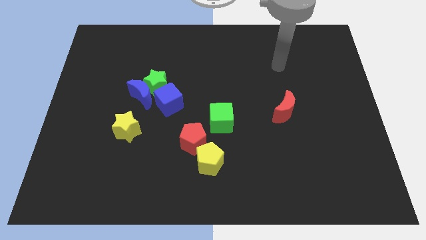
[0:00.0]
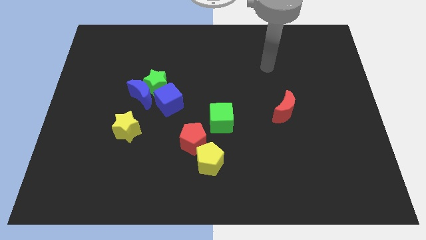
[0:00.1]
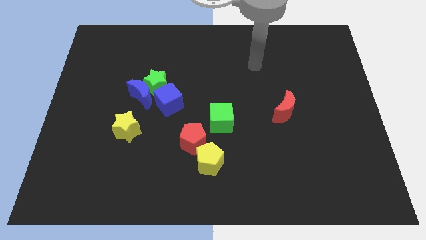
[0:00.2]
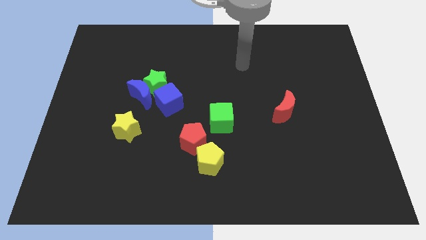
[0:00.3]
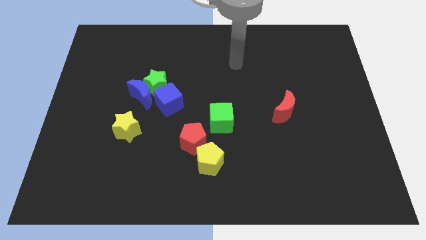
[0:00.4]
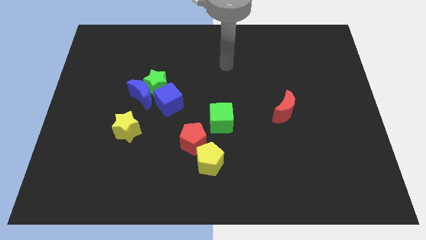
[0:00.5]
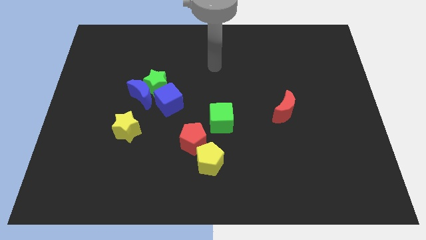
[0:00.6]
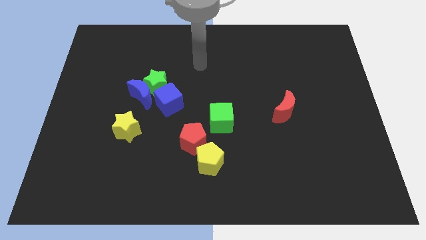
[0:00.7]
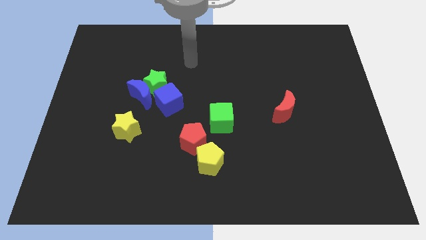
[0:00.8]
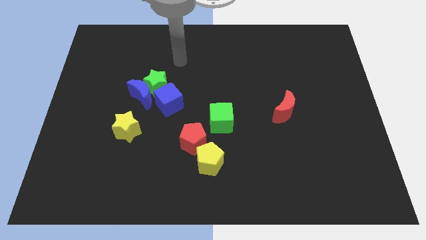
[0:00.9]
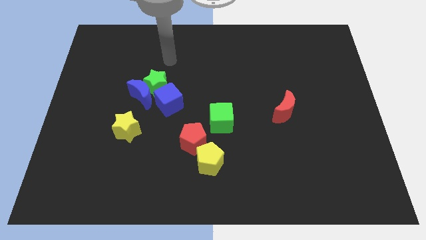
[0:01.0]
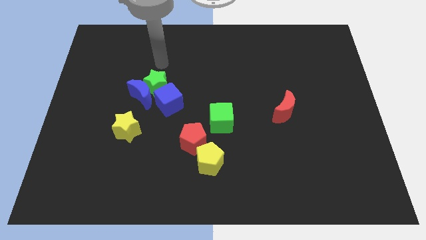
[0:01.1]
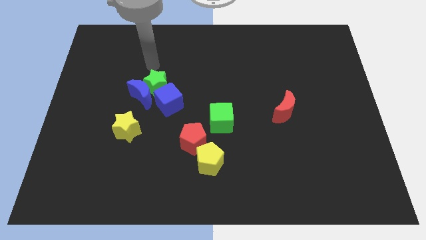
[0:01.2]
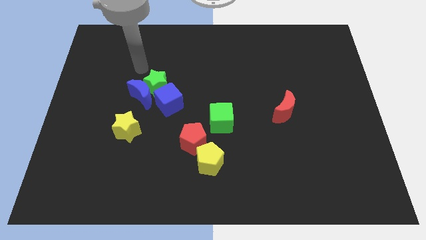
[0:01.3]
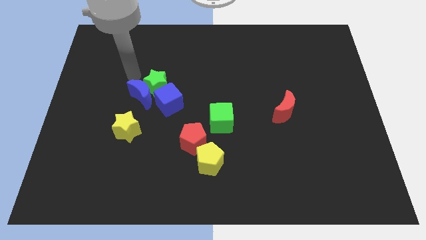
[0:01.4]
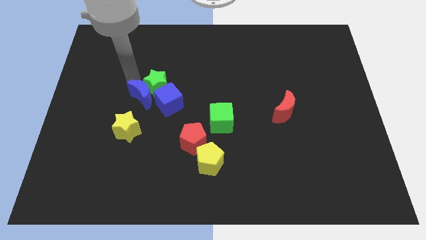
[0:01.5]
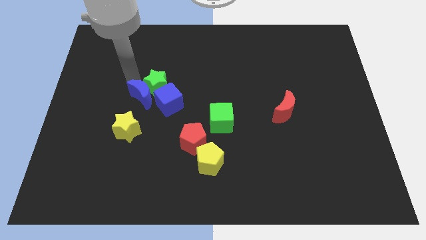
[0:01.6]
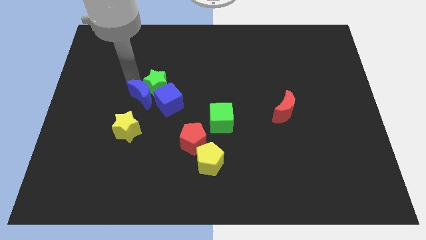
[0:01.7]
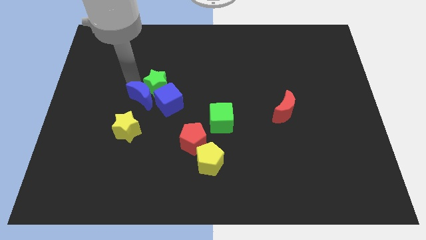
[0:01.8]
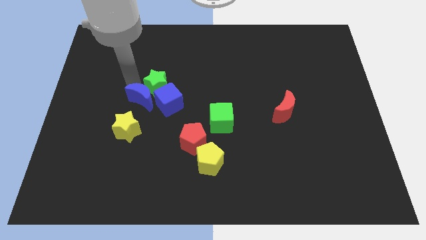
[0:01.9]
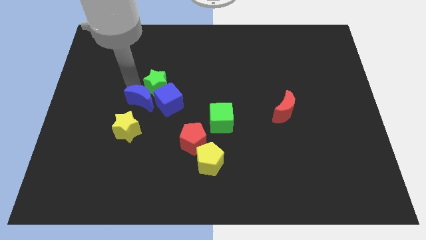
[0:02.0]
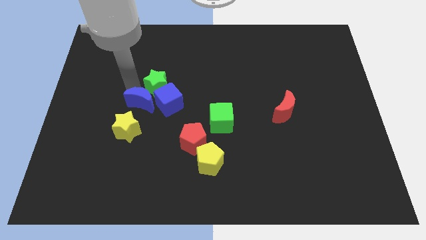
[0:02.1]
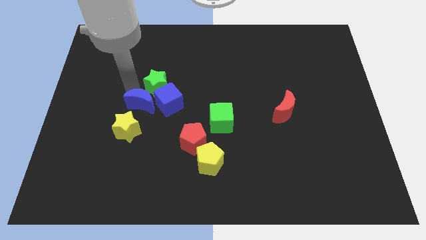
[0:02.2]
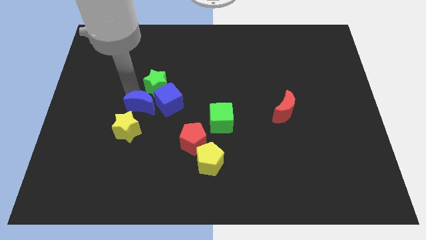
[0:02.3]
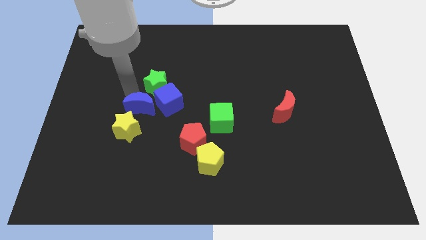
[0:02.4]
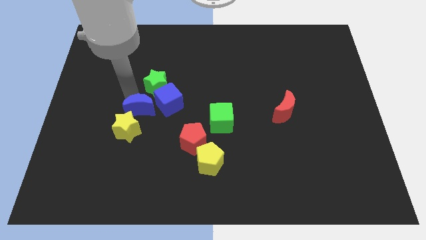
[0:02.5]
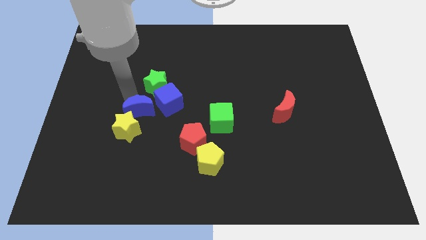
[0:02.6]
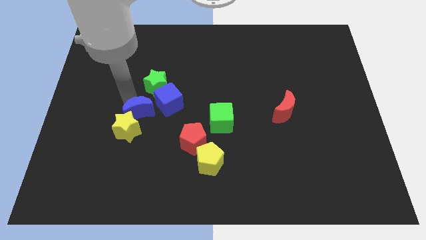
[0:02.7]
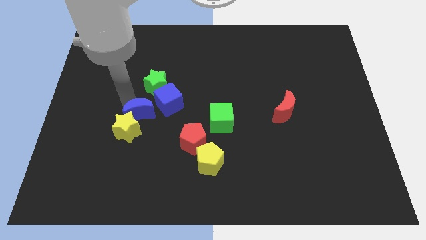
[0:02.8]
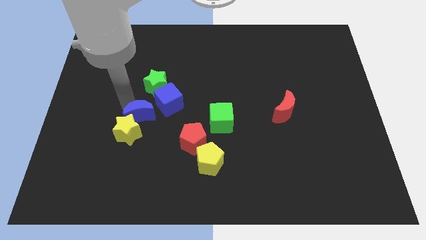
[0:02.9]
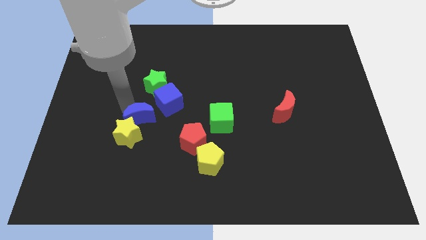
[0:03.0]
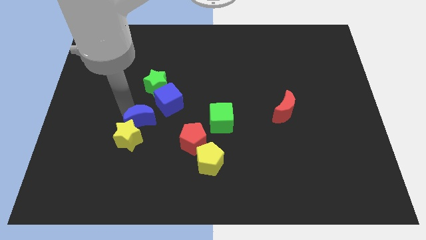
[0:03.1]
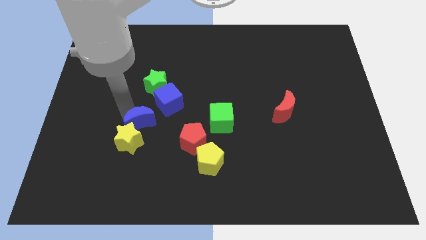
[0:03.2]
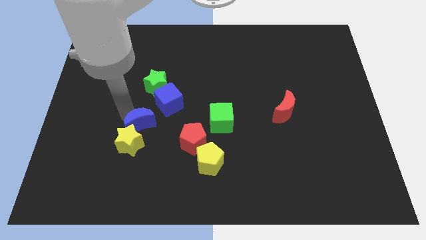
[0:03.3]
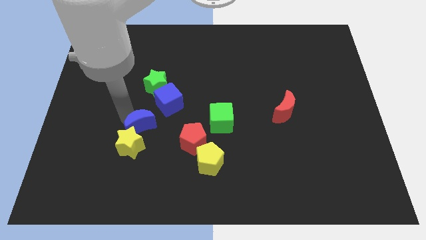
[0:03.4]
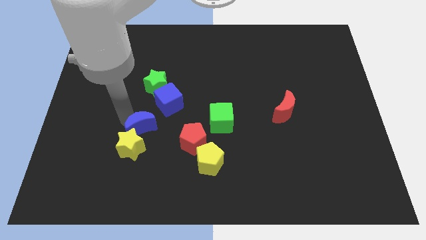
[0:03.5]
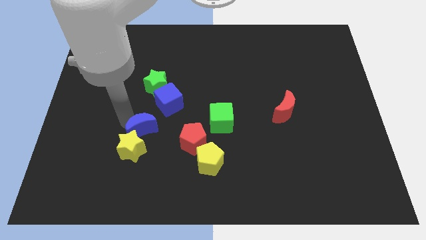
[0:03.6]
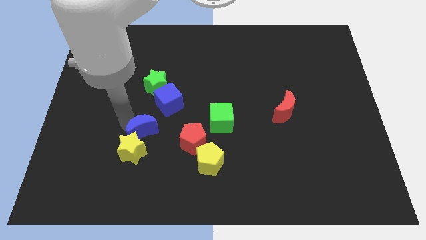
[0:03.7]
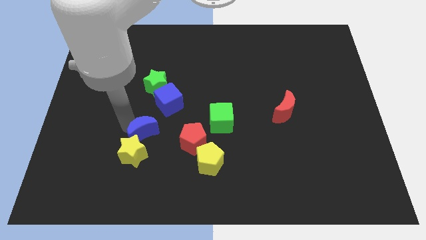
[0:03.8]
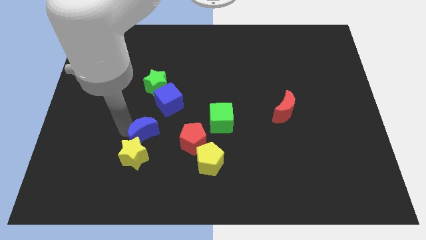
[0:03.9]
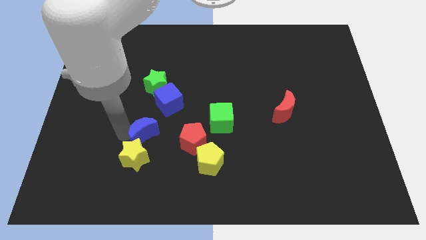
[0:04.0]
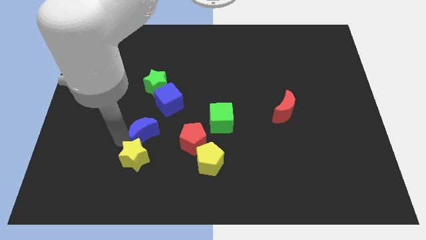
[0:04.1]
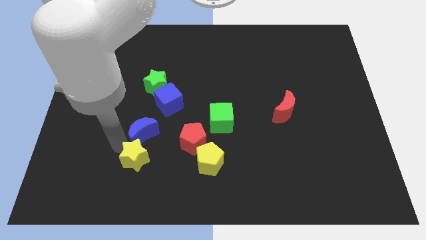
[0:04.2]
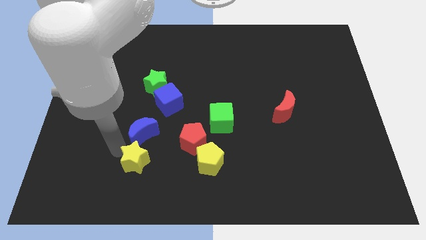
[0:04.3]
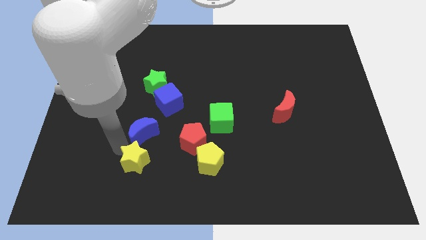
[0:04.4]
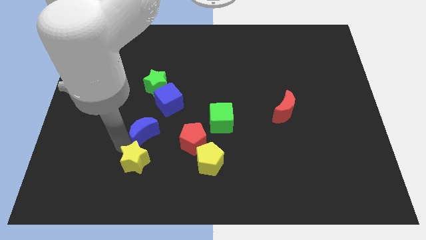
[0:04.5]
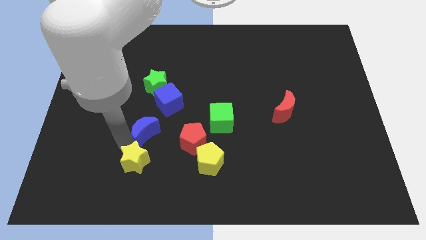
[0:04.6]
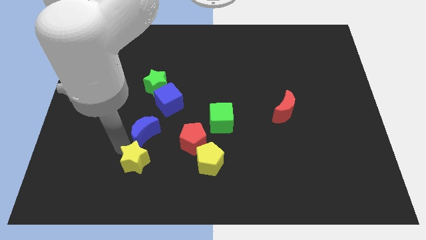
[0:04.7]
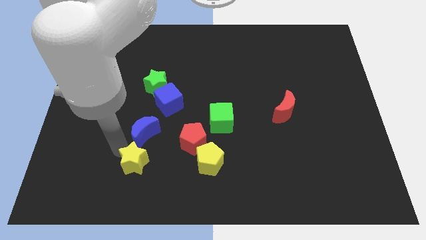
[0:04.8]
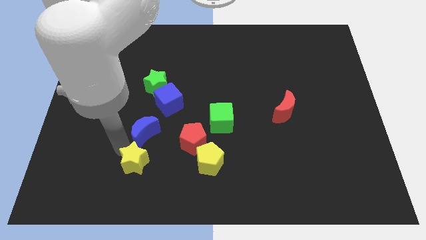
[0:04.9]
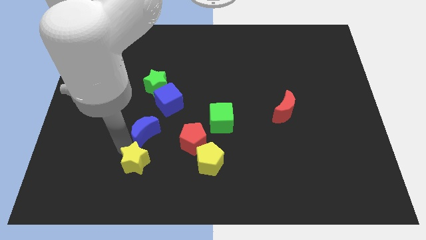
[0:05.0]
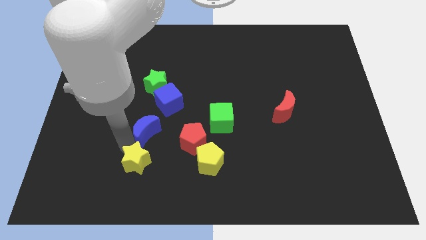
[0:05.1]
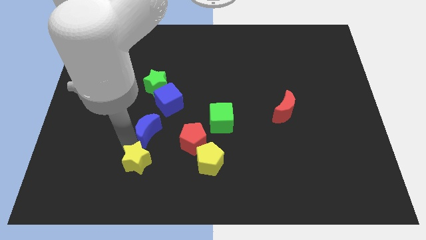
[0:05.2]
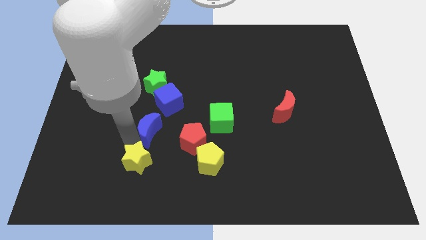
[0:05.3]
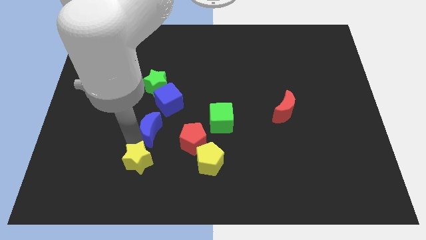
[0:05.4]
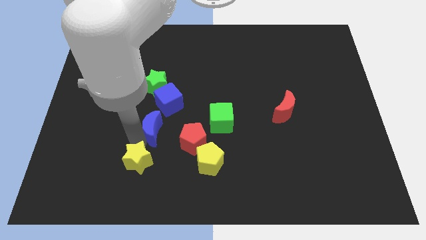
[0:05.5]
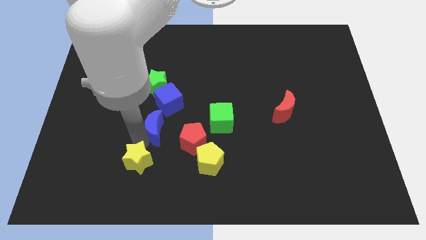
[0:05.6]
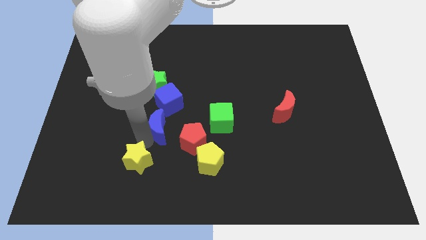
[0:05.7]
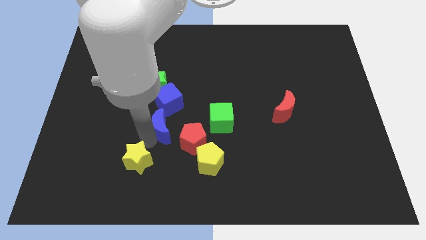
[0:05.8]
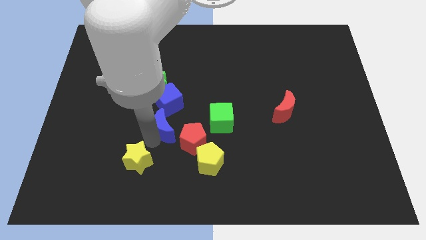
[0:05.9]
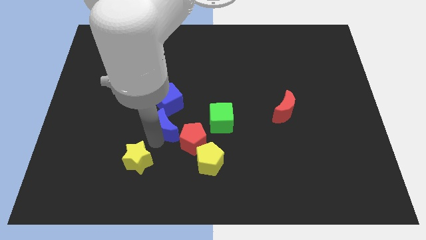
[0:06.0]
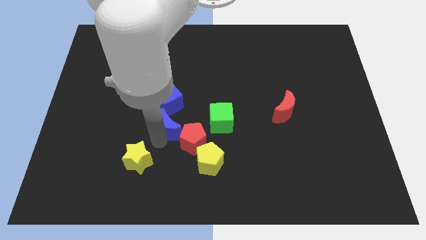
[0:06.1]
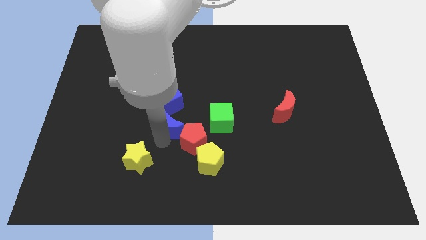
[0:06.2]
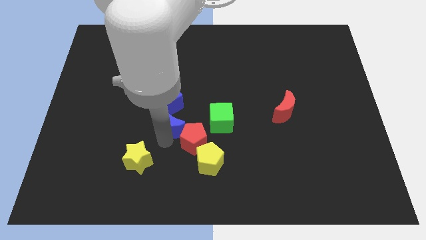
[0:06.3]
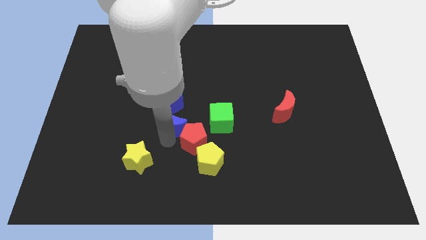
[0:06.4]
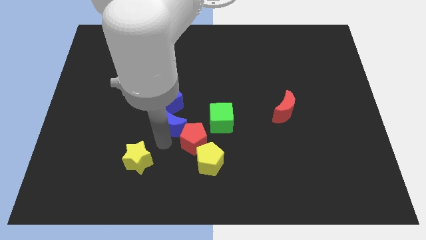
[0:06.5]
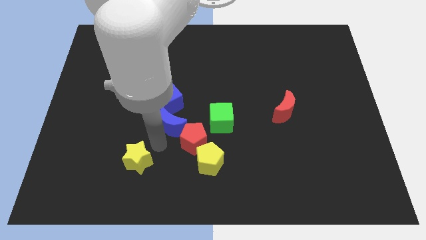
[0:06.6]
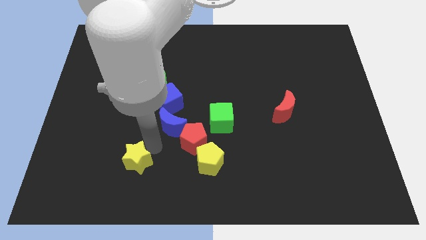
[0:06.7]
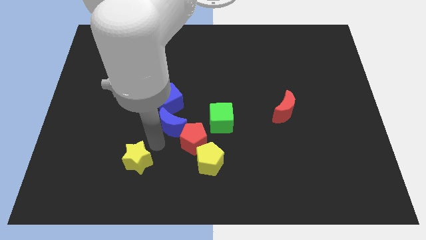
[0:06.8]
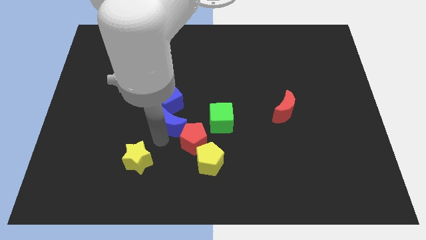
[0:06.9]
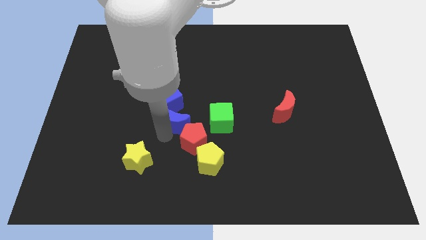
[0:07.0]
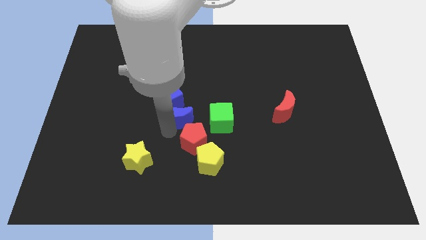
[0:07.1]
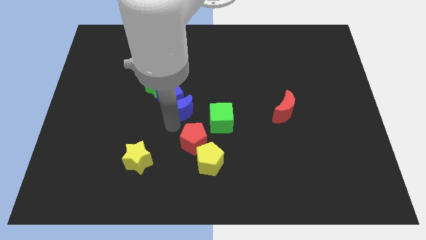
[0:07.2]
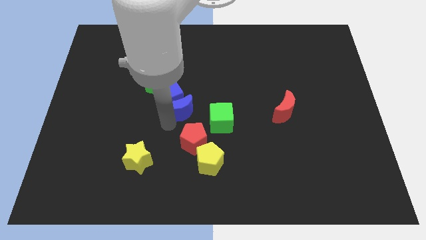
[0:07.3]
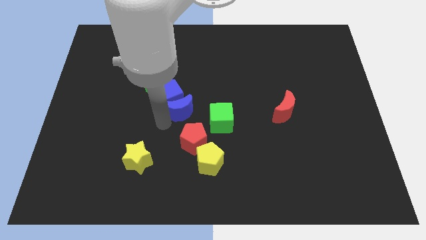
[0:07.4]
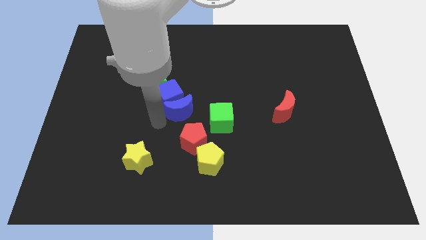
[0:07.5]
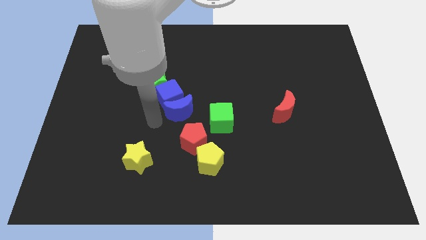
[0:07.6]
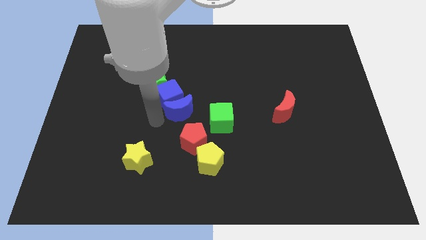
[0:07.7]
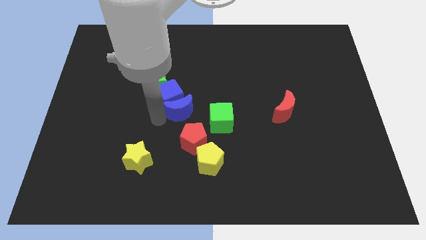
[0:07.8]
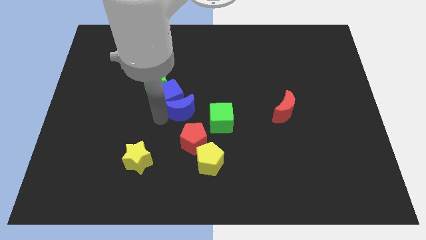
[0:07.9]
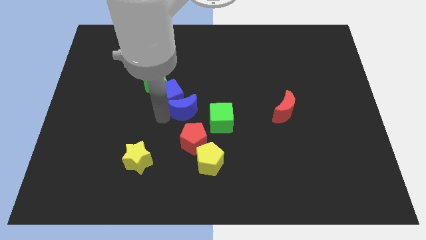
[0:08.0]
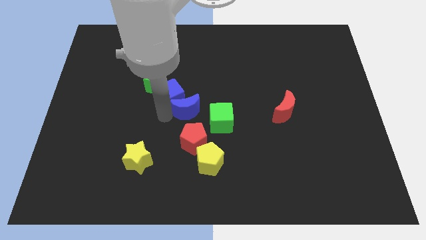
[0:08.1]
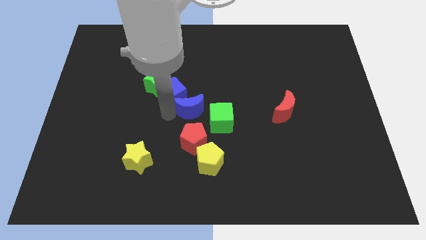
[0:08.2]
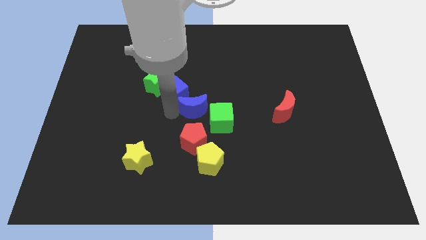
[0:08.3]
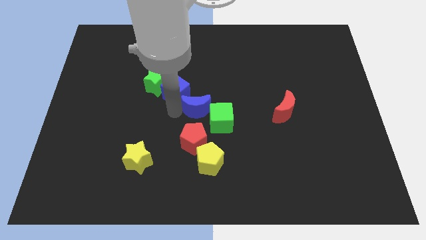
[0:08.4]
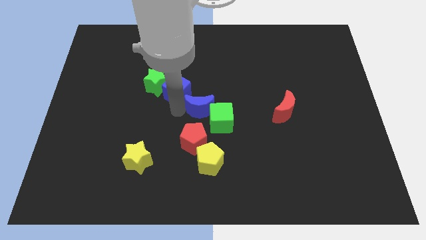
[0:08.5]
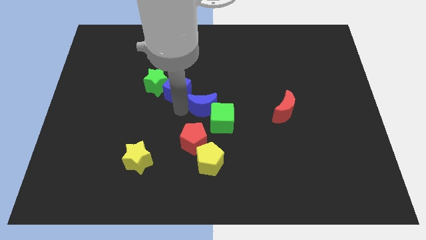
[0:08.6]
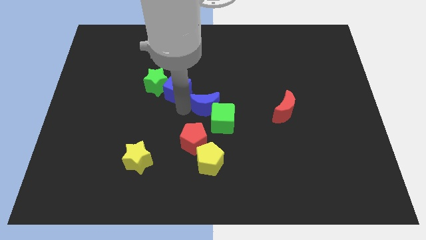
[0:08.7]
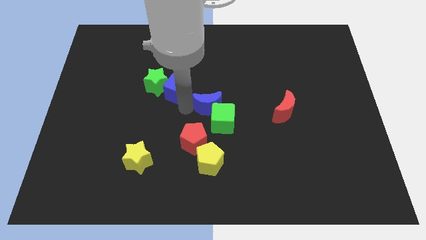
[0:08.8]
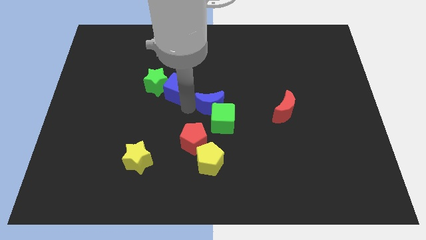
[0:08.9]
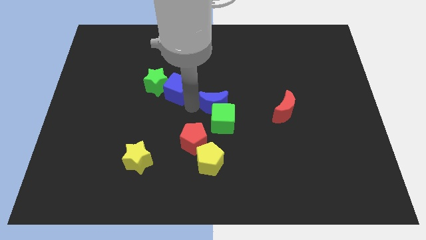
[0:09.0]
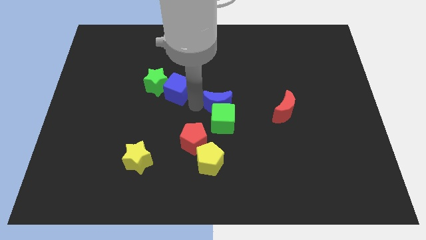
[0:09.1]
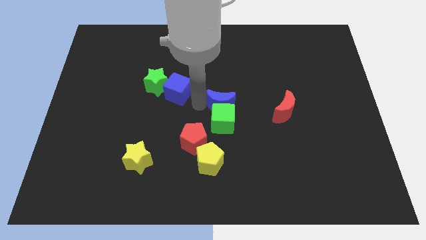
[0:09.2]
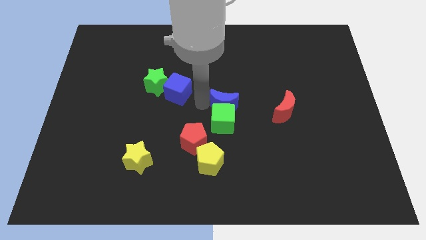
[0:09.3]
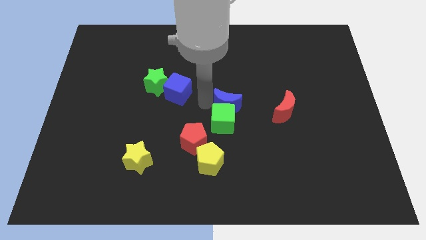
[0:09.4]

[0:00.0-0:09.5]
push the blue moon to the right
